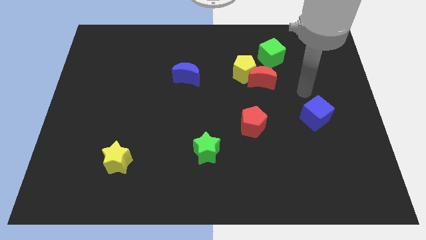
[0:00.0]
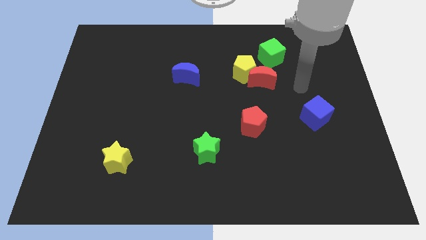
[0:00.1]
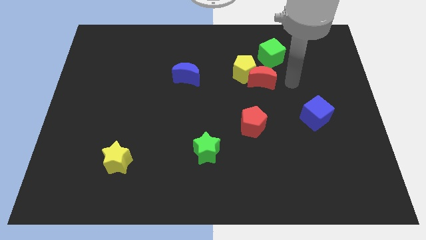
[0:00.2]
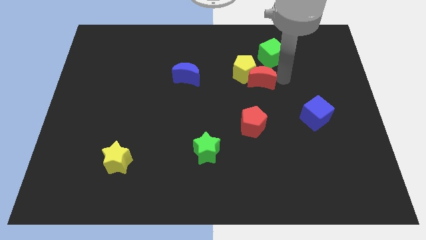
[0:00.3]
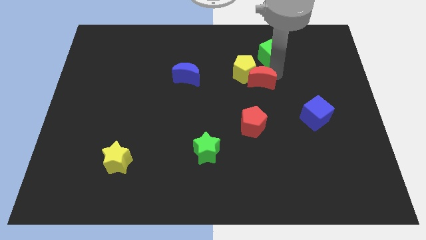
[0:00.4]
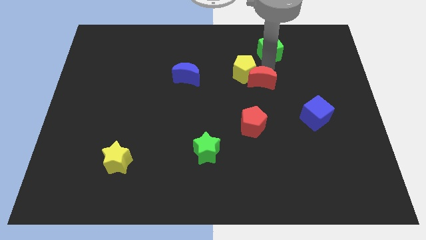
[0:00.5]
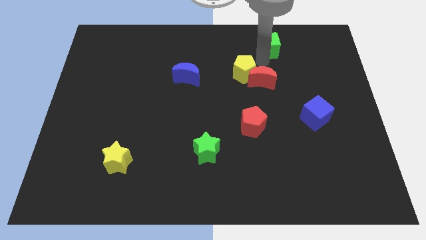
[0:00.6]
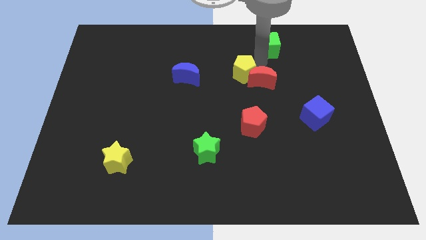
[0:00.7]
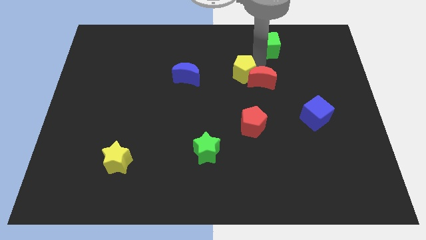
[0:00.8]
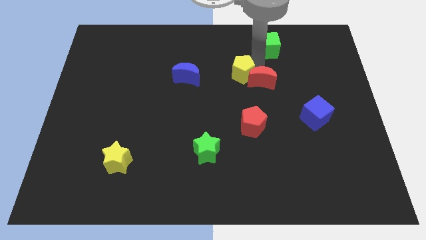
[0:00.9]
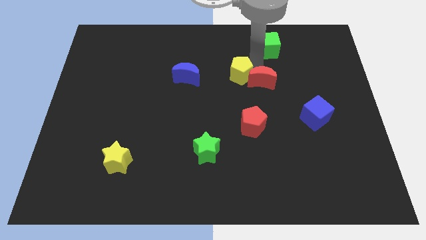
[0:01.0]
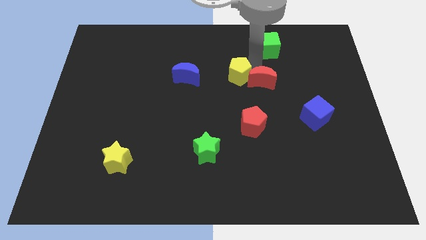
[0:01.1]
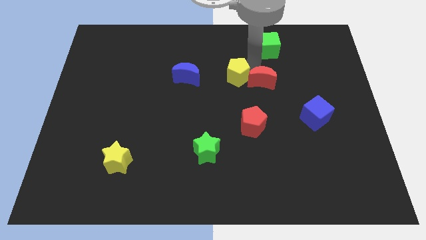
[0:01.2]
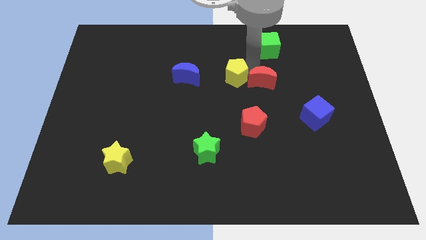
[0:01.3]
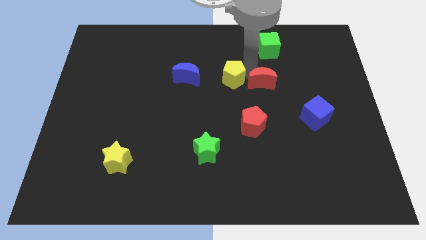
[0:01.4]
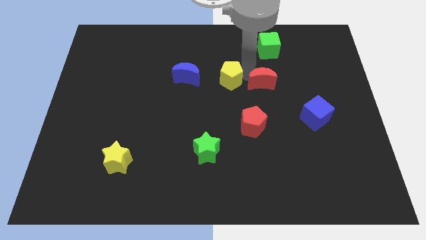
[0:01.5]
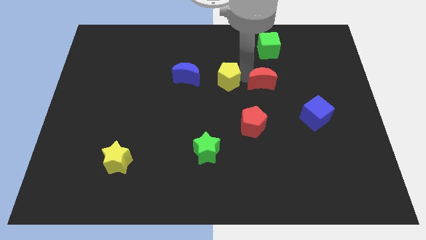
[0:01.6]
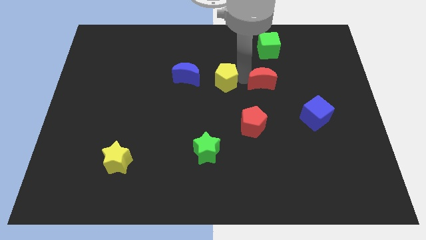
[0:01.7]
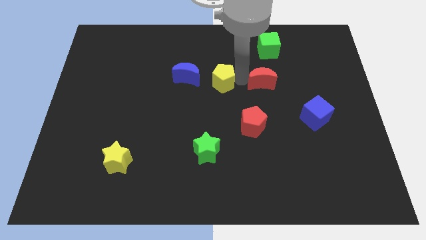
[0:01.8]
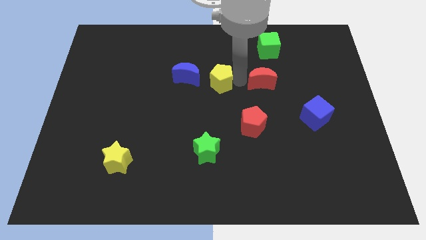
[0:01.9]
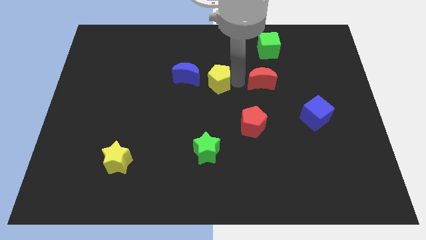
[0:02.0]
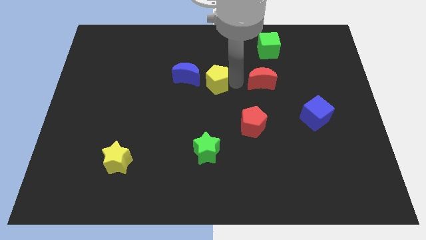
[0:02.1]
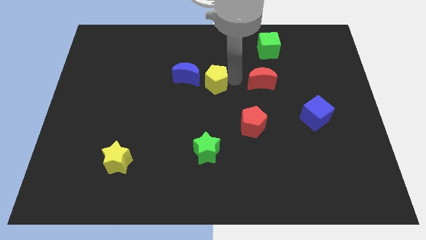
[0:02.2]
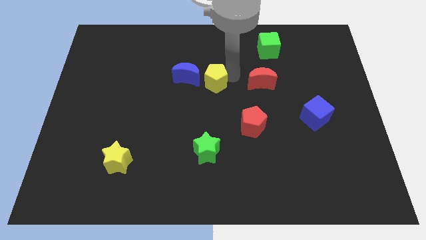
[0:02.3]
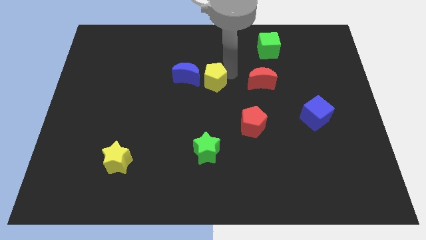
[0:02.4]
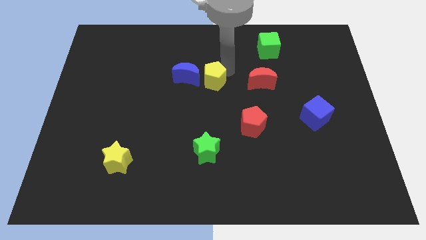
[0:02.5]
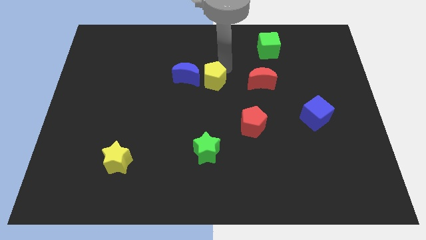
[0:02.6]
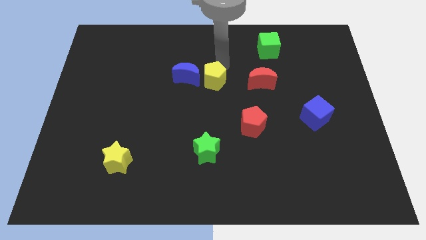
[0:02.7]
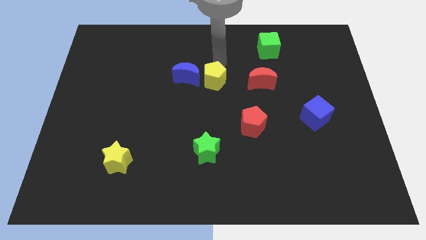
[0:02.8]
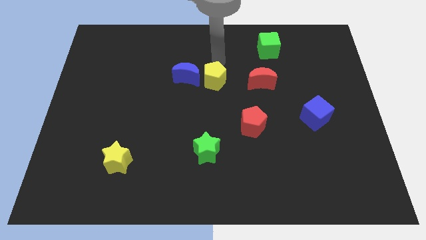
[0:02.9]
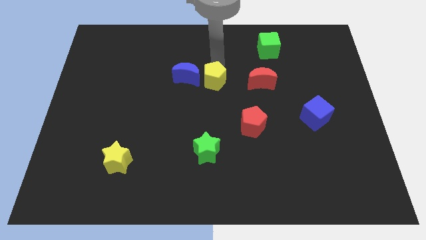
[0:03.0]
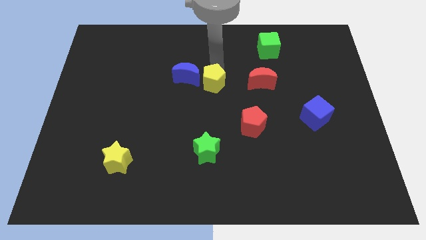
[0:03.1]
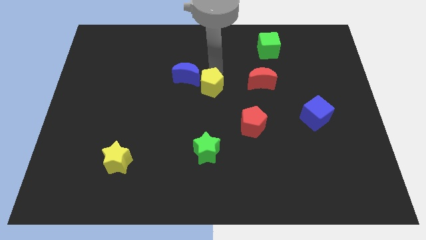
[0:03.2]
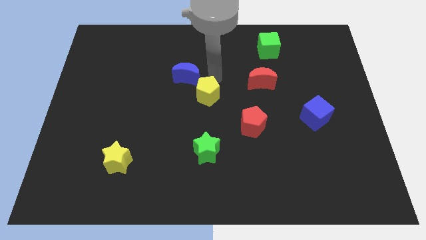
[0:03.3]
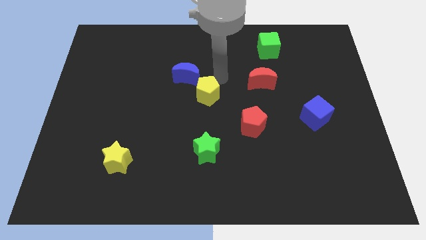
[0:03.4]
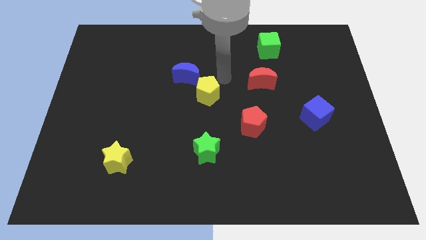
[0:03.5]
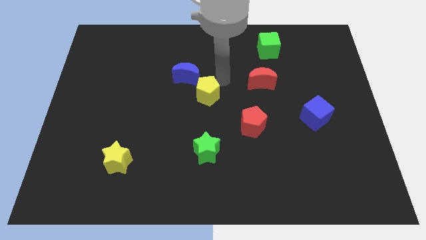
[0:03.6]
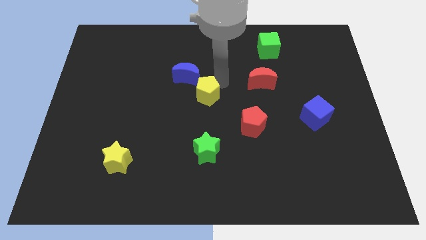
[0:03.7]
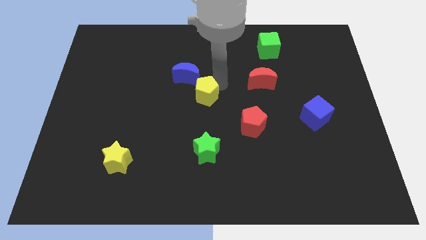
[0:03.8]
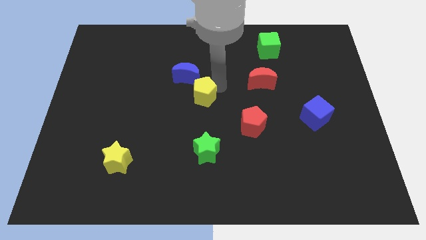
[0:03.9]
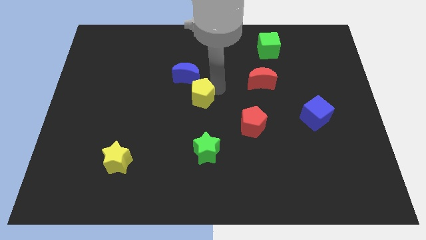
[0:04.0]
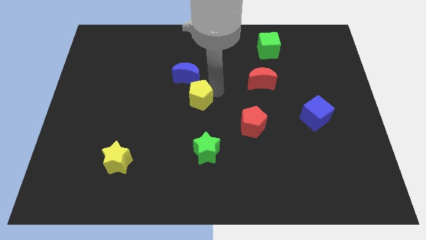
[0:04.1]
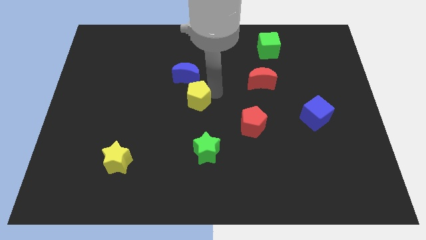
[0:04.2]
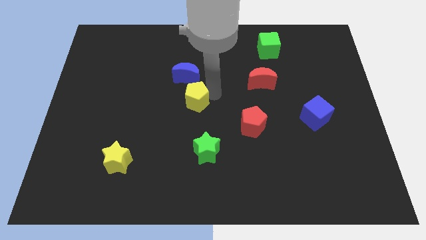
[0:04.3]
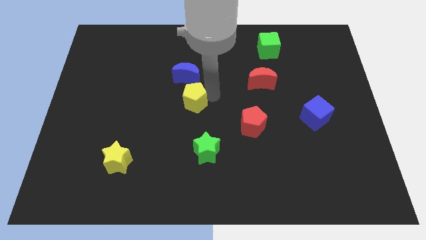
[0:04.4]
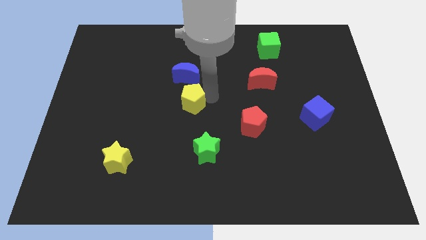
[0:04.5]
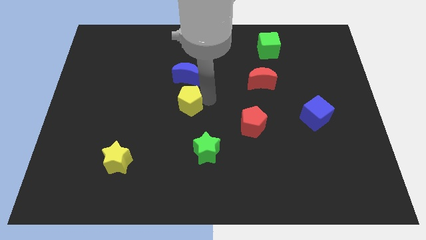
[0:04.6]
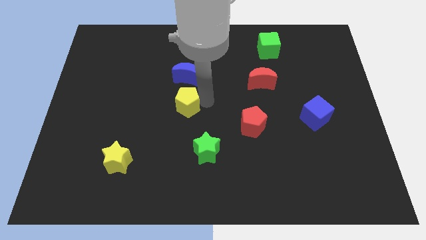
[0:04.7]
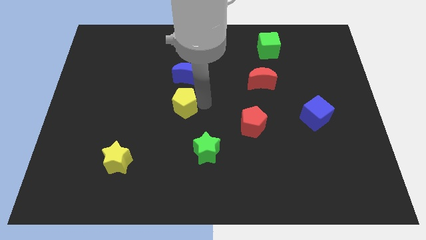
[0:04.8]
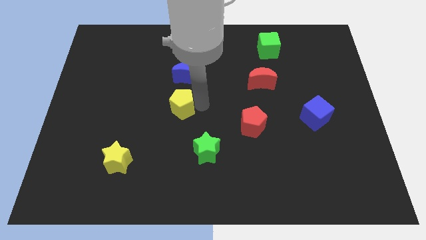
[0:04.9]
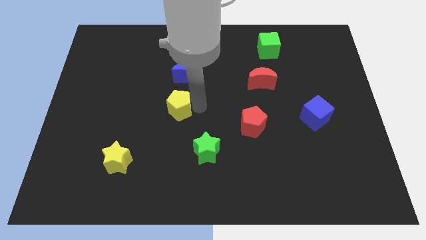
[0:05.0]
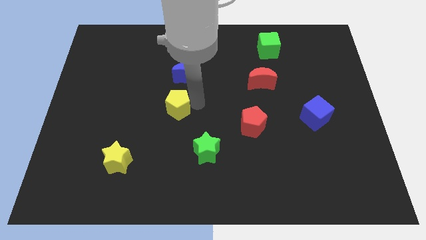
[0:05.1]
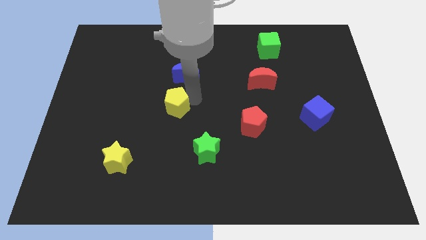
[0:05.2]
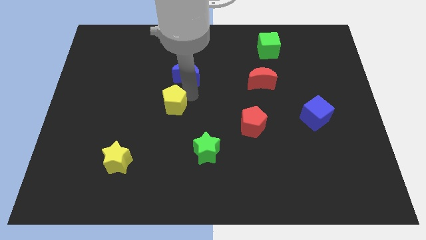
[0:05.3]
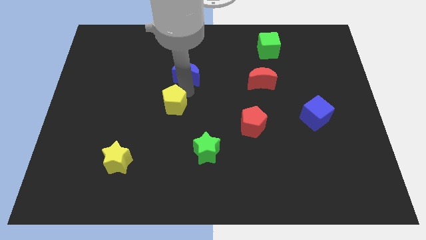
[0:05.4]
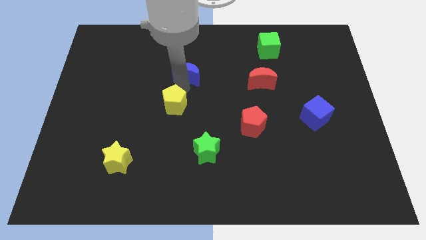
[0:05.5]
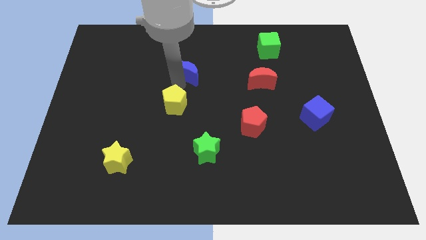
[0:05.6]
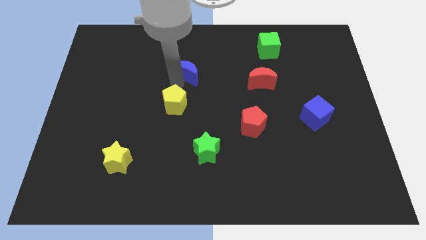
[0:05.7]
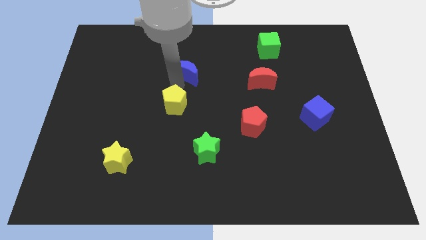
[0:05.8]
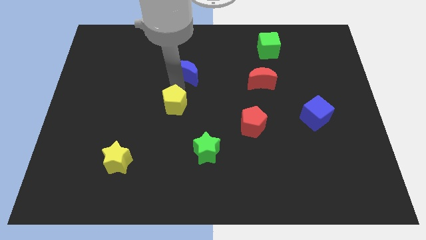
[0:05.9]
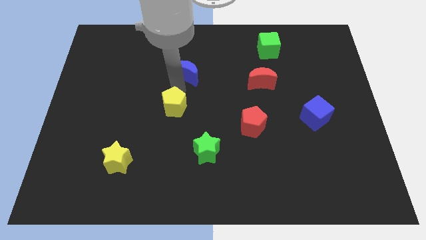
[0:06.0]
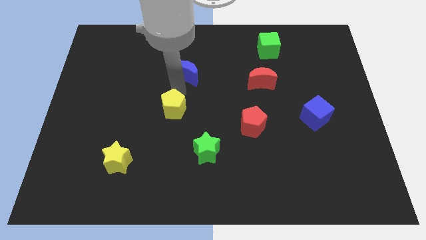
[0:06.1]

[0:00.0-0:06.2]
move the yellow pentagon downwards and to the left diagonally

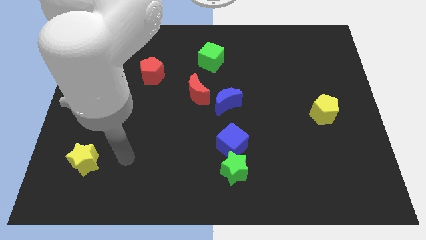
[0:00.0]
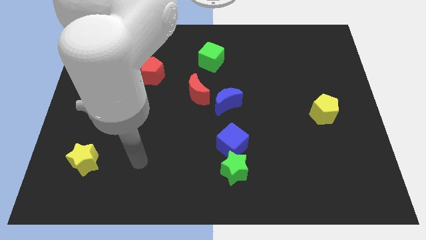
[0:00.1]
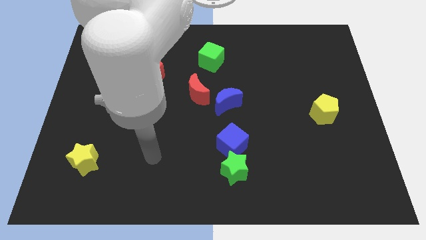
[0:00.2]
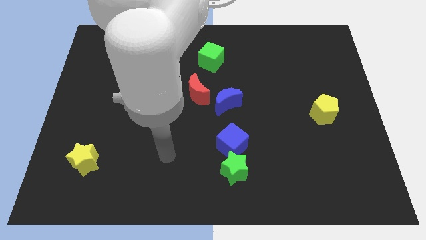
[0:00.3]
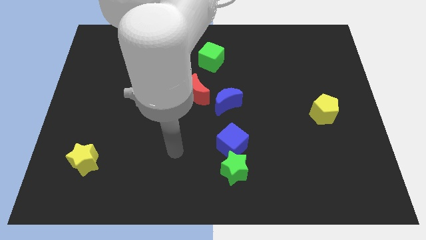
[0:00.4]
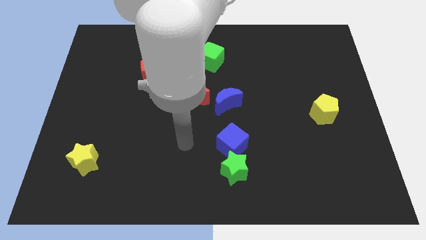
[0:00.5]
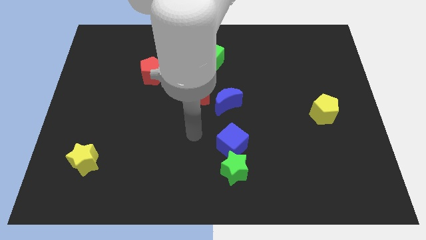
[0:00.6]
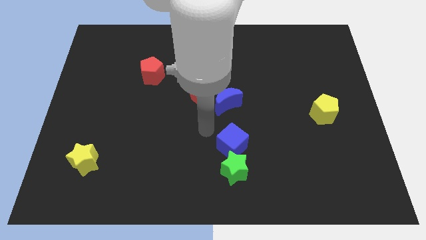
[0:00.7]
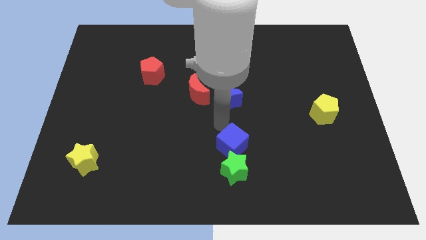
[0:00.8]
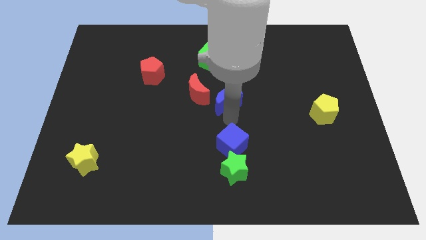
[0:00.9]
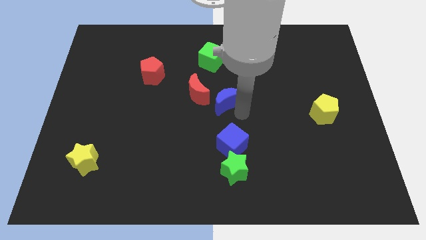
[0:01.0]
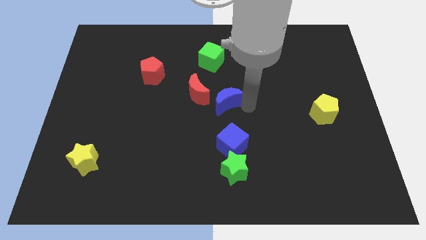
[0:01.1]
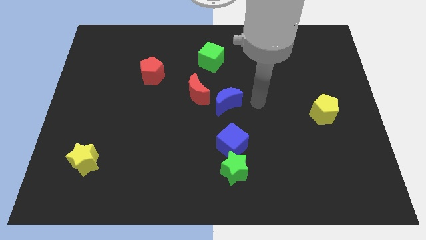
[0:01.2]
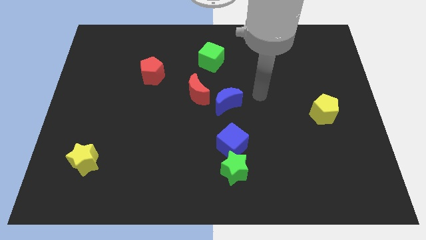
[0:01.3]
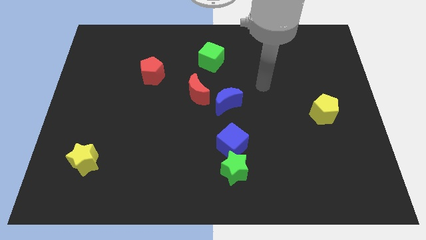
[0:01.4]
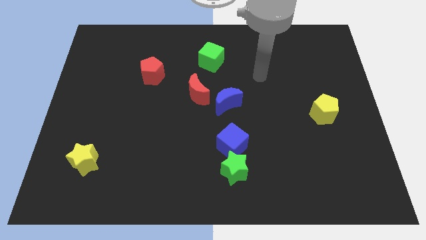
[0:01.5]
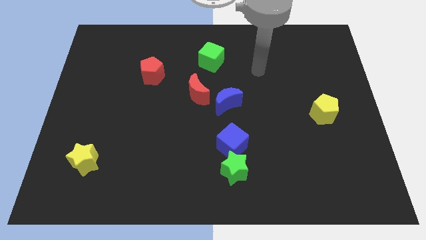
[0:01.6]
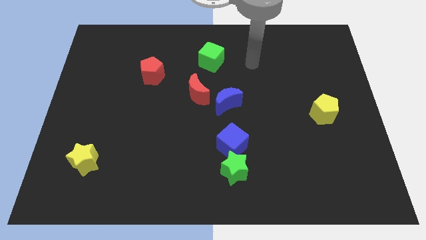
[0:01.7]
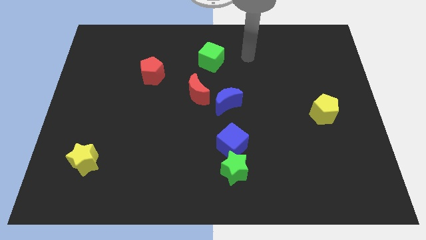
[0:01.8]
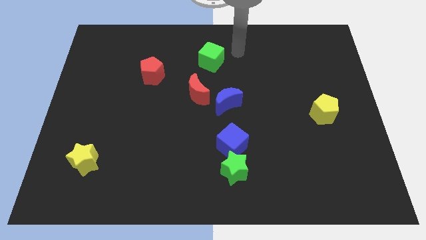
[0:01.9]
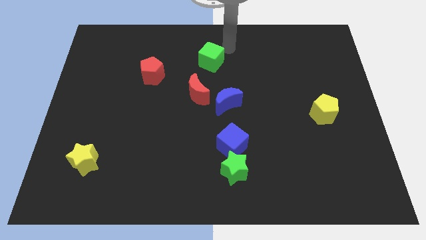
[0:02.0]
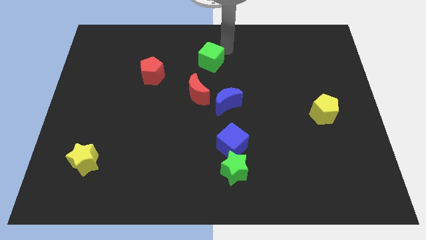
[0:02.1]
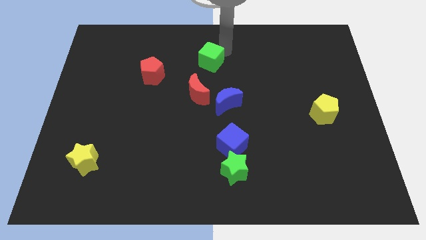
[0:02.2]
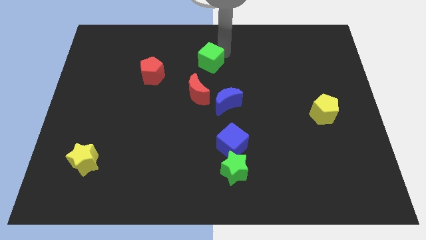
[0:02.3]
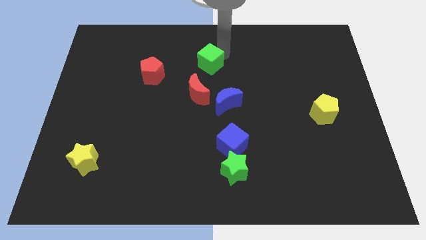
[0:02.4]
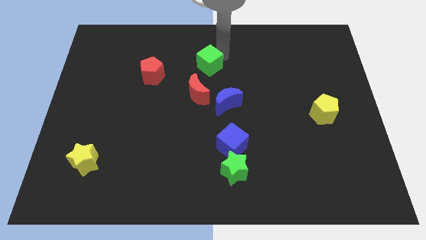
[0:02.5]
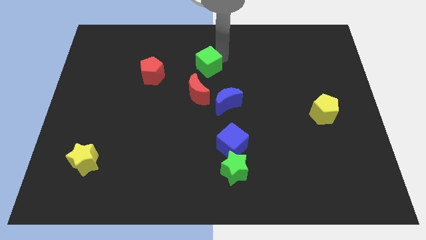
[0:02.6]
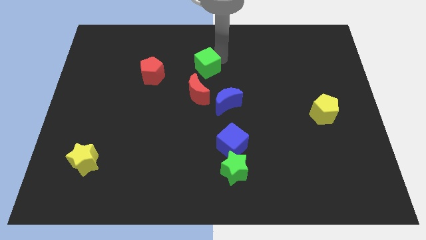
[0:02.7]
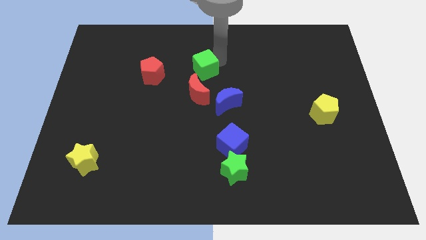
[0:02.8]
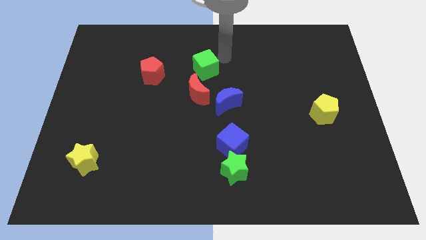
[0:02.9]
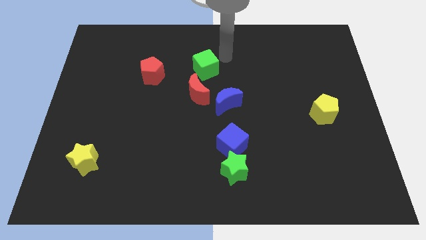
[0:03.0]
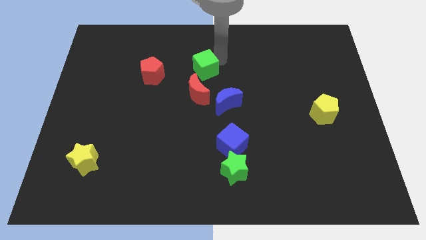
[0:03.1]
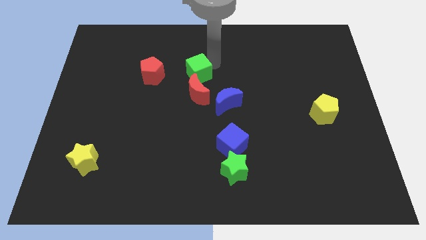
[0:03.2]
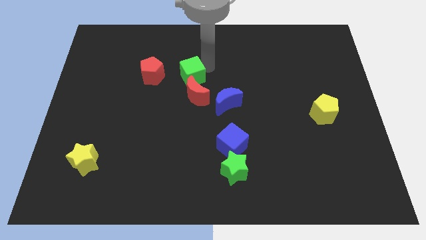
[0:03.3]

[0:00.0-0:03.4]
slightly move the green cube down and to the left diagonally
